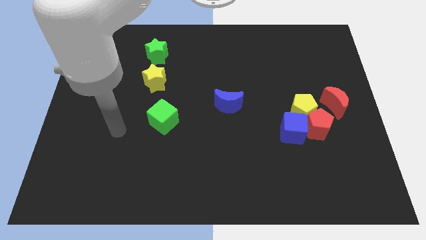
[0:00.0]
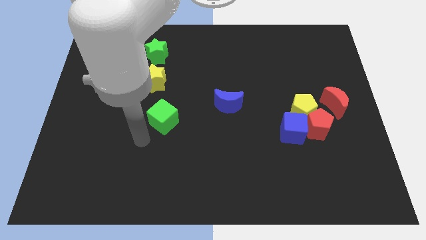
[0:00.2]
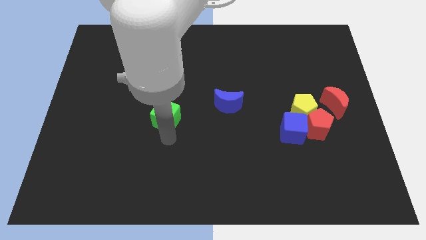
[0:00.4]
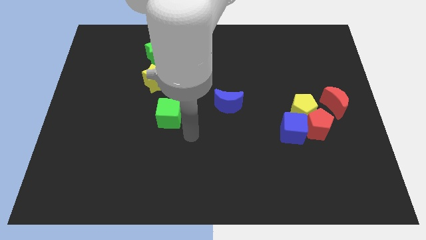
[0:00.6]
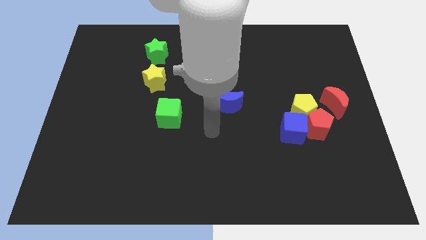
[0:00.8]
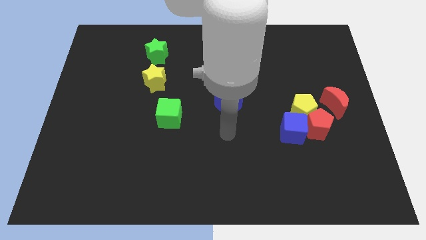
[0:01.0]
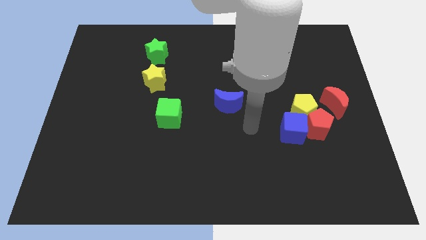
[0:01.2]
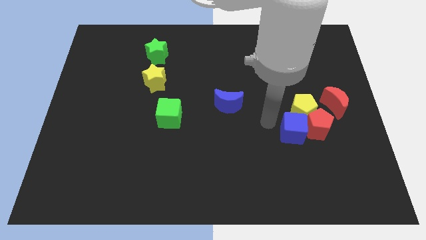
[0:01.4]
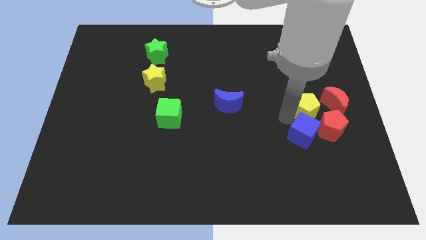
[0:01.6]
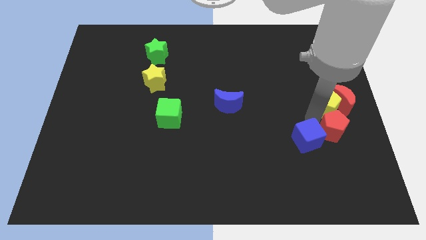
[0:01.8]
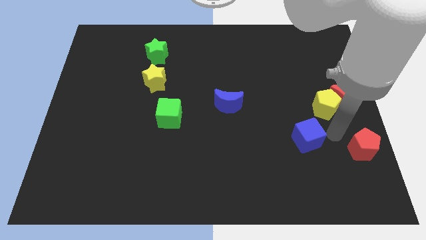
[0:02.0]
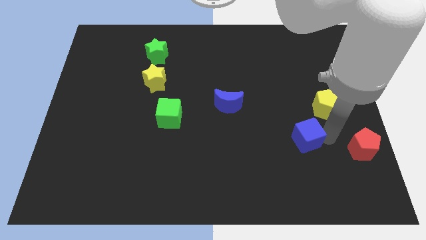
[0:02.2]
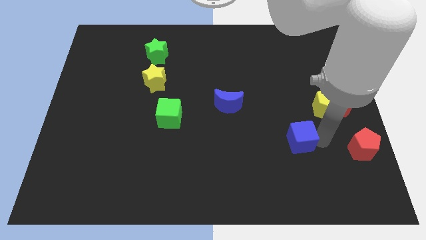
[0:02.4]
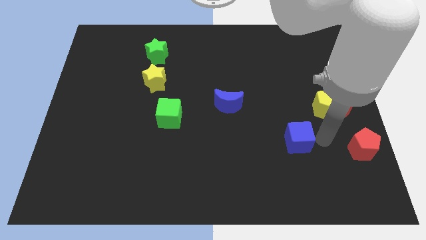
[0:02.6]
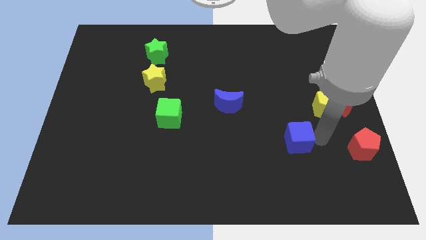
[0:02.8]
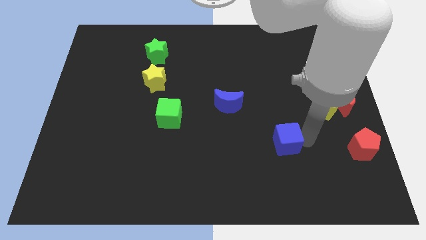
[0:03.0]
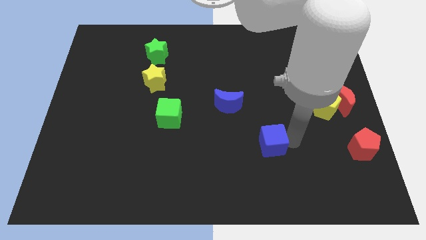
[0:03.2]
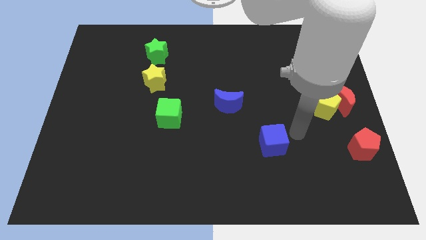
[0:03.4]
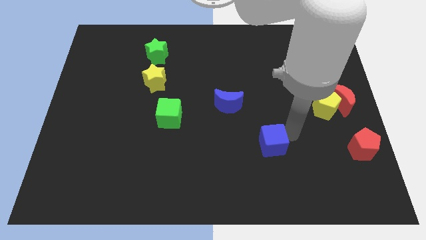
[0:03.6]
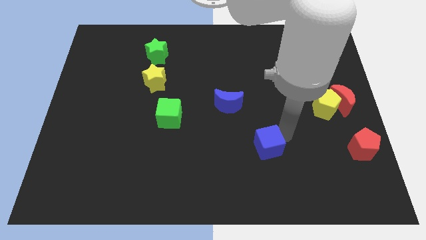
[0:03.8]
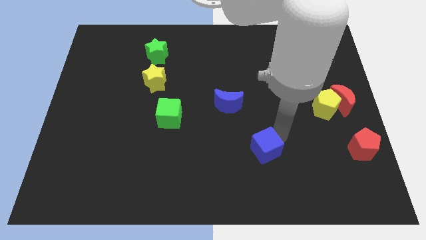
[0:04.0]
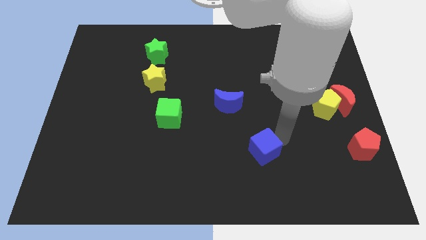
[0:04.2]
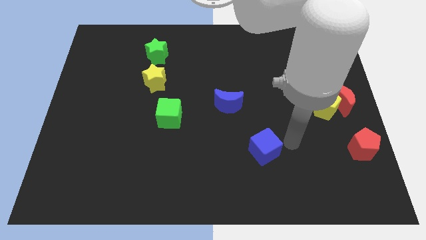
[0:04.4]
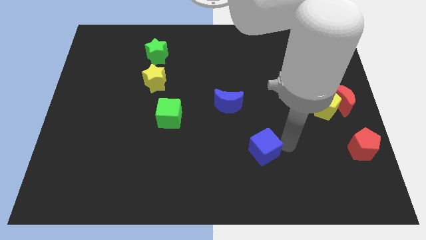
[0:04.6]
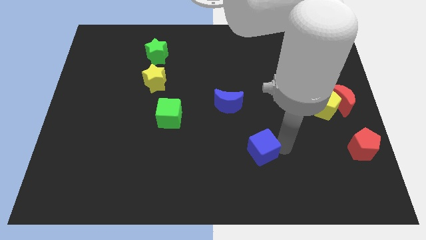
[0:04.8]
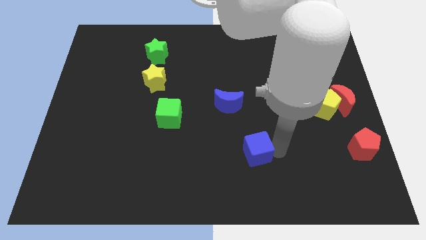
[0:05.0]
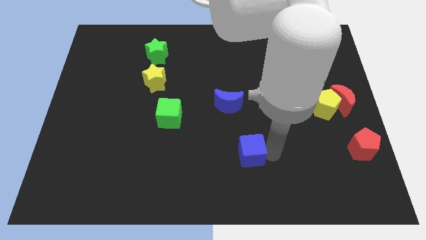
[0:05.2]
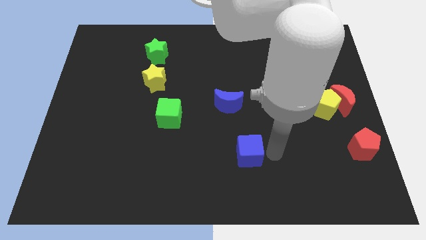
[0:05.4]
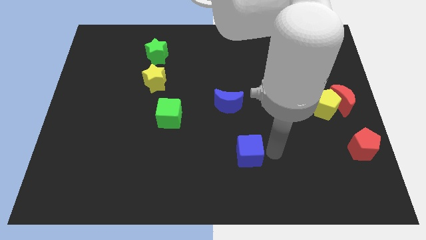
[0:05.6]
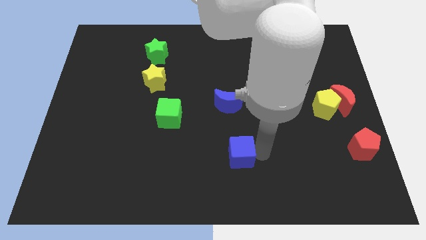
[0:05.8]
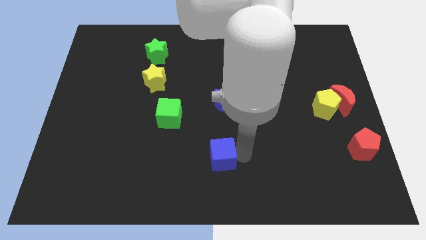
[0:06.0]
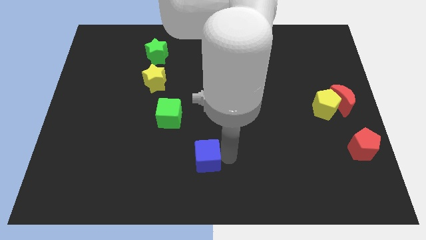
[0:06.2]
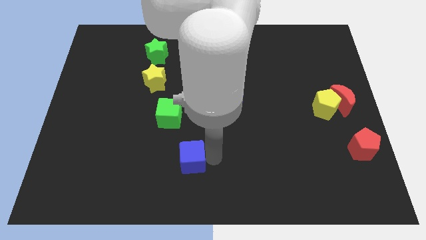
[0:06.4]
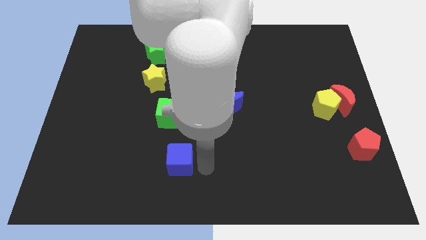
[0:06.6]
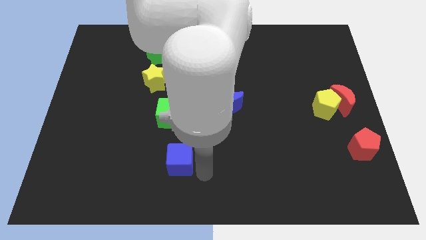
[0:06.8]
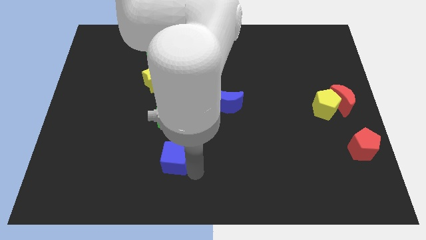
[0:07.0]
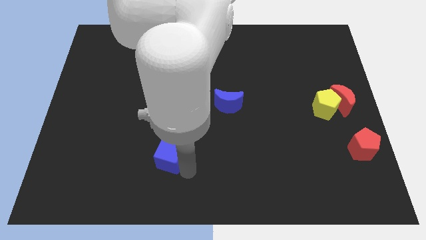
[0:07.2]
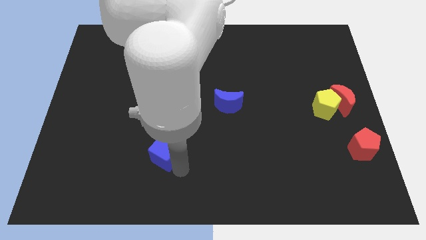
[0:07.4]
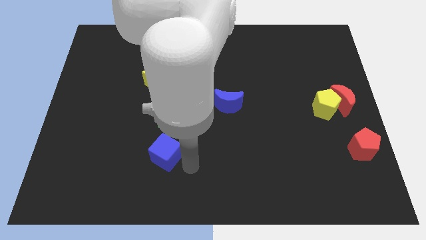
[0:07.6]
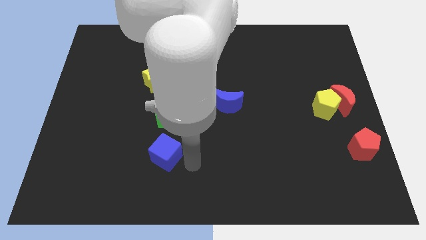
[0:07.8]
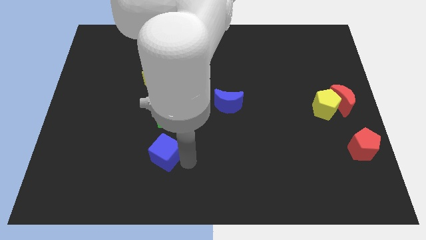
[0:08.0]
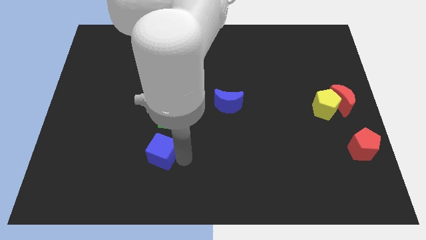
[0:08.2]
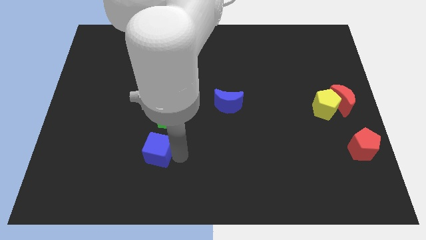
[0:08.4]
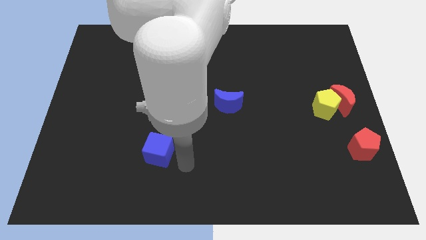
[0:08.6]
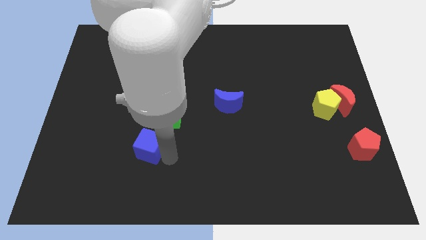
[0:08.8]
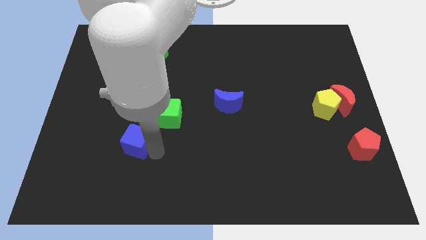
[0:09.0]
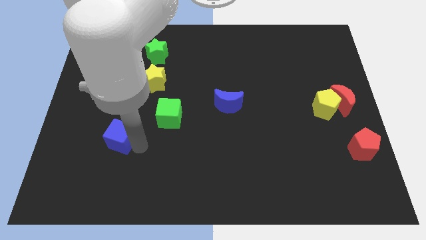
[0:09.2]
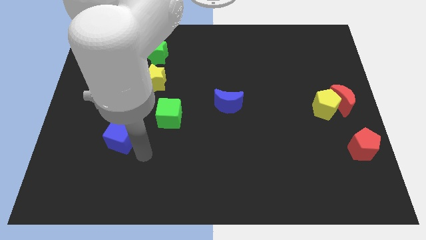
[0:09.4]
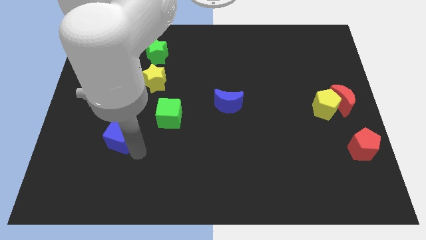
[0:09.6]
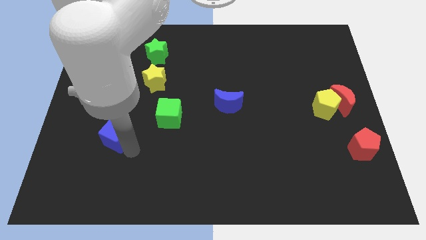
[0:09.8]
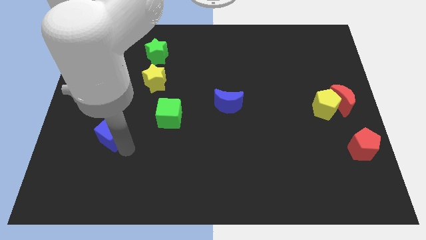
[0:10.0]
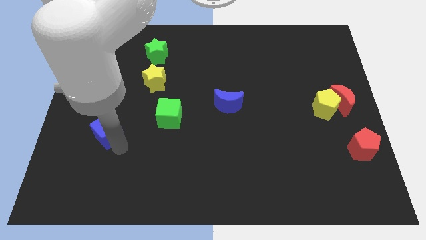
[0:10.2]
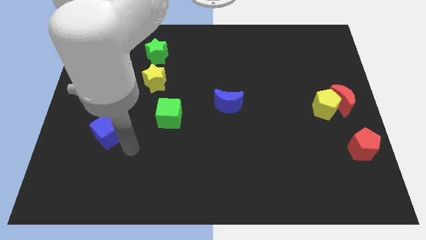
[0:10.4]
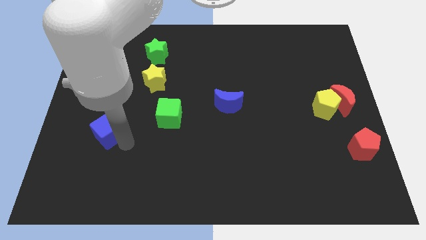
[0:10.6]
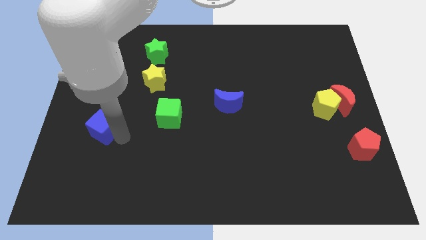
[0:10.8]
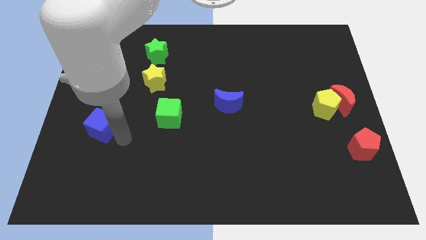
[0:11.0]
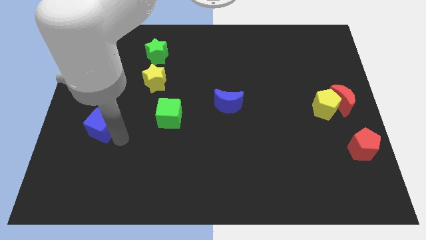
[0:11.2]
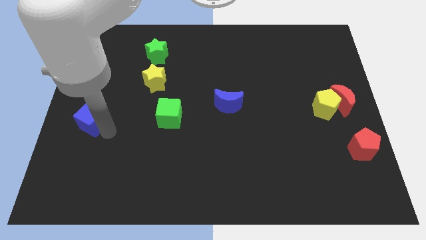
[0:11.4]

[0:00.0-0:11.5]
push the blue cube to the left side
